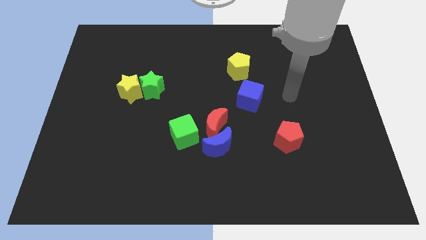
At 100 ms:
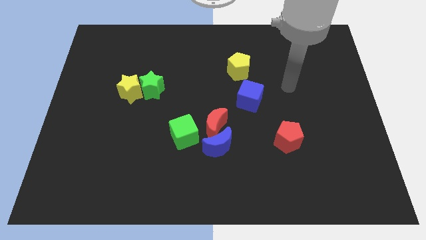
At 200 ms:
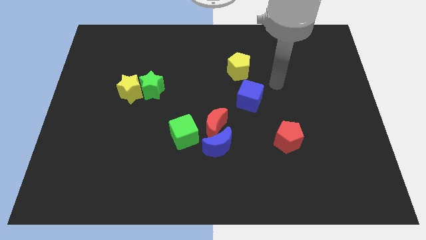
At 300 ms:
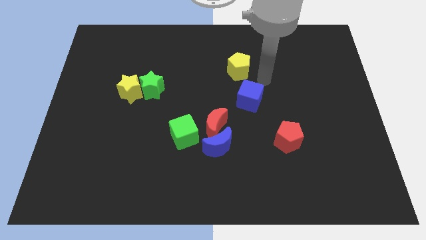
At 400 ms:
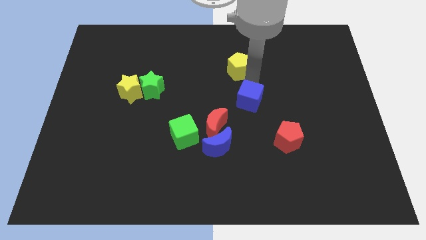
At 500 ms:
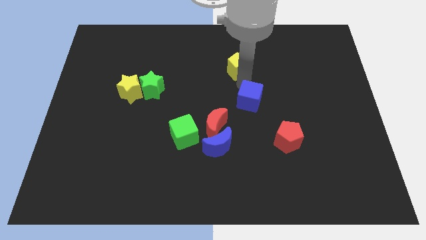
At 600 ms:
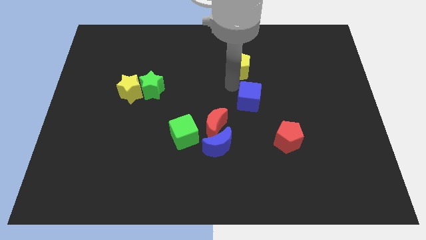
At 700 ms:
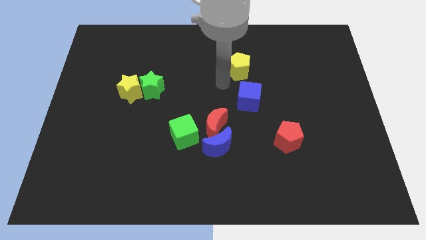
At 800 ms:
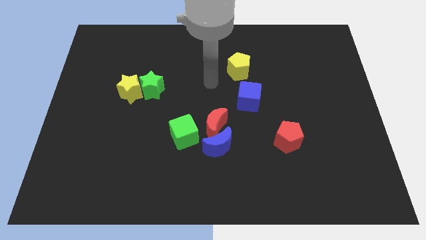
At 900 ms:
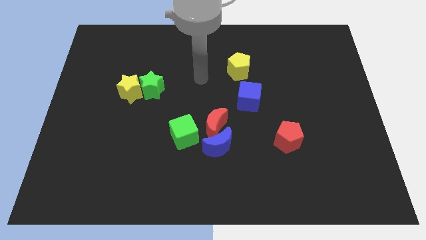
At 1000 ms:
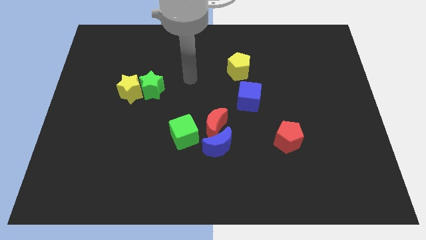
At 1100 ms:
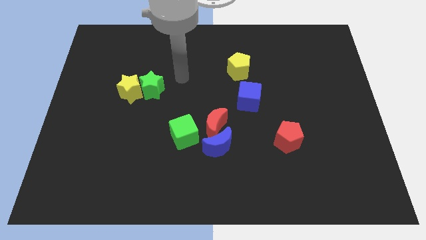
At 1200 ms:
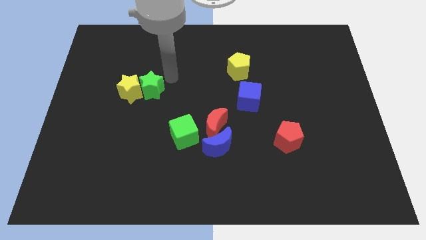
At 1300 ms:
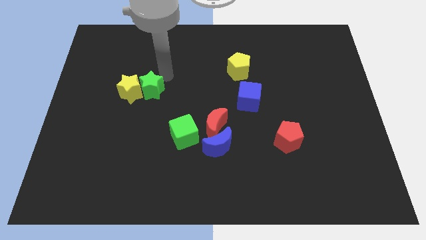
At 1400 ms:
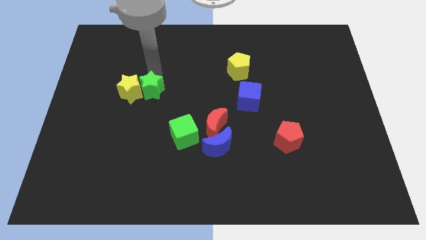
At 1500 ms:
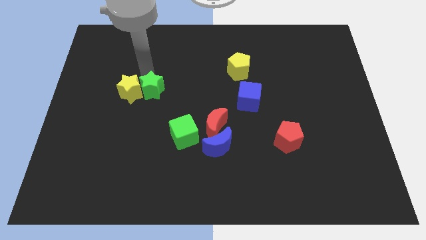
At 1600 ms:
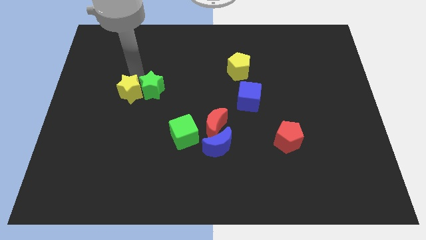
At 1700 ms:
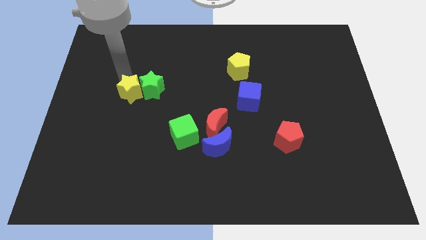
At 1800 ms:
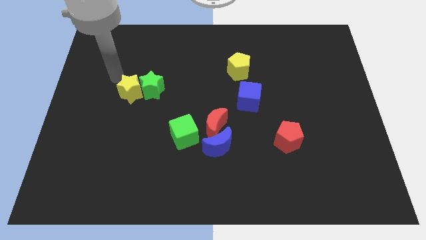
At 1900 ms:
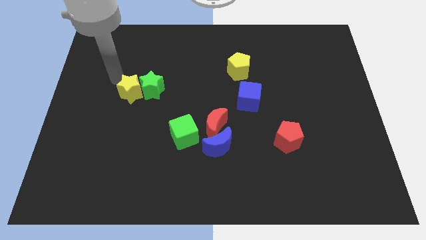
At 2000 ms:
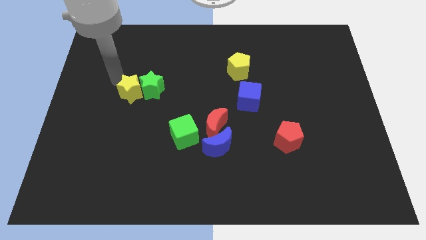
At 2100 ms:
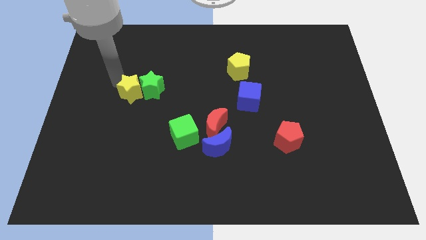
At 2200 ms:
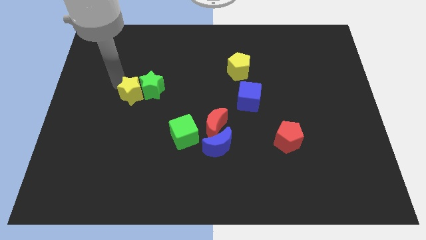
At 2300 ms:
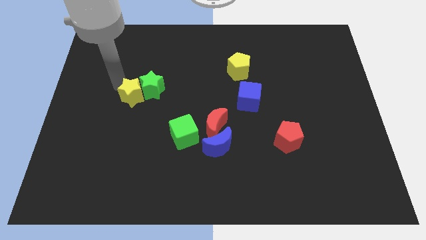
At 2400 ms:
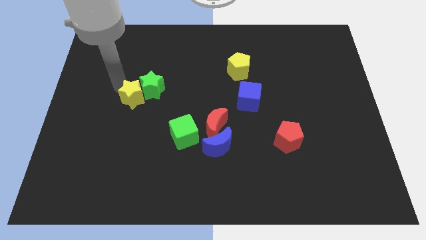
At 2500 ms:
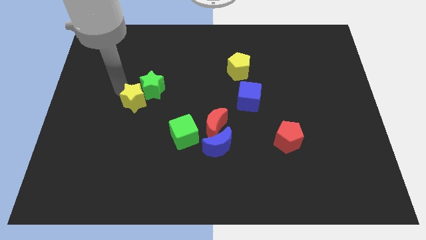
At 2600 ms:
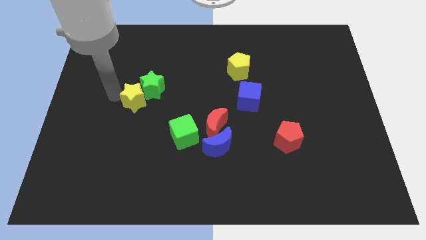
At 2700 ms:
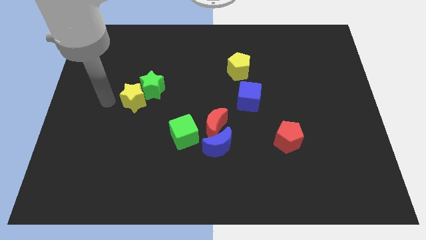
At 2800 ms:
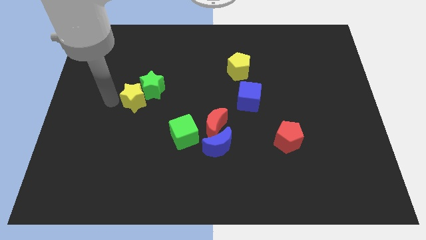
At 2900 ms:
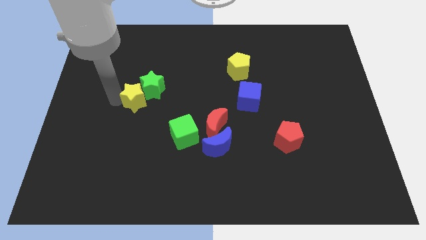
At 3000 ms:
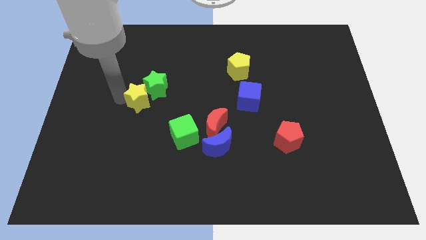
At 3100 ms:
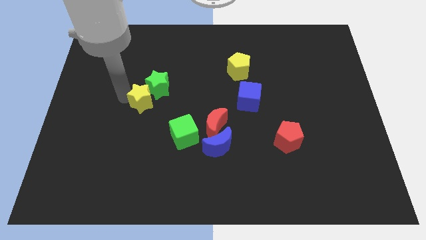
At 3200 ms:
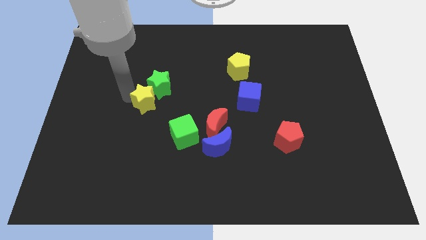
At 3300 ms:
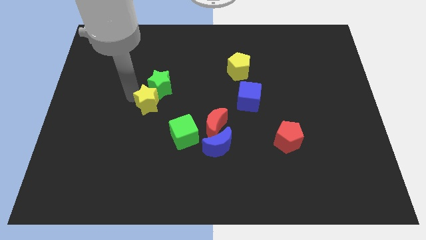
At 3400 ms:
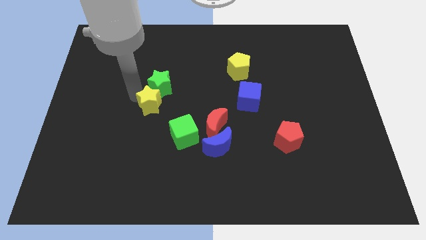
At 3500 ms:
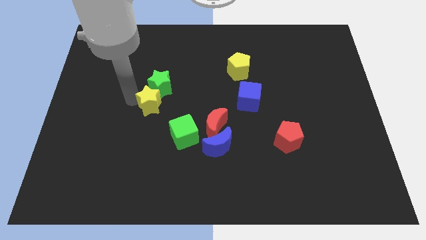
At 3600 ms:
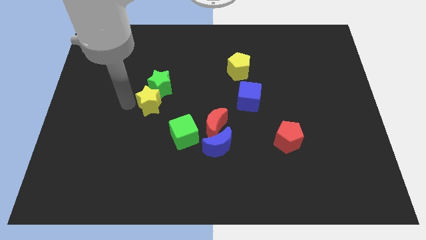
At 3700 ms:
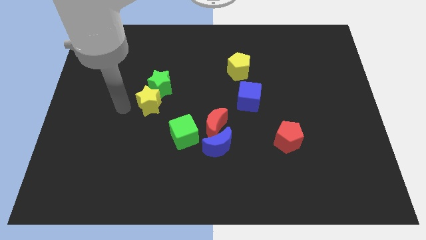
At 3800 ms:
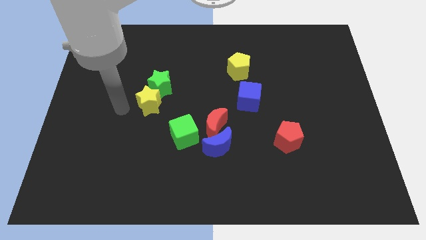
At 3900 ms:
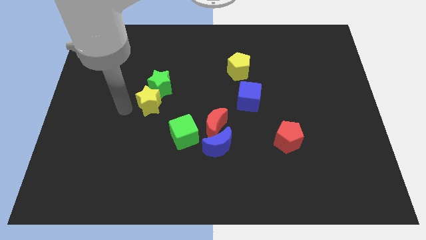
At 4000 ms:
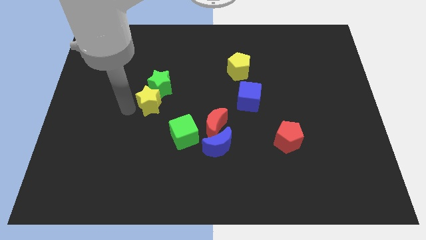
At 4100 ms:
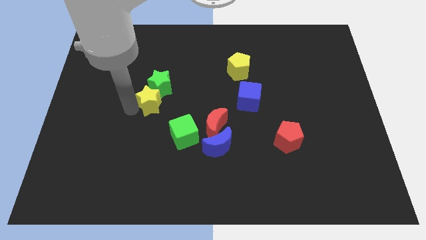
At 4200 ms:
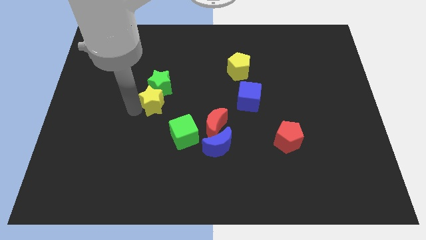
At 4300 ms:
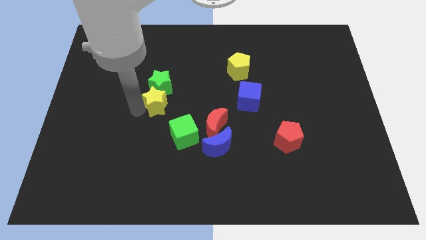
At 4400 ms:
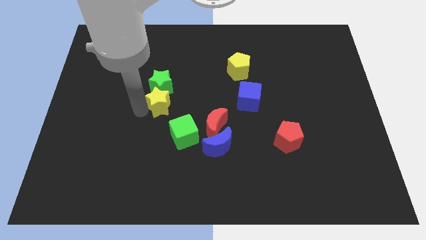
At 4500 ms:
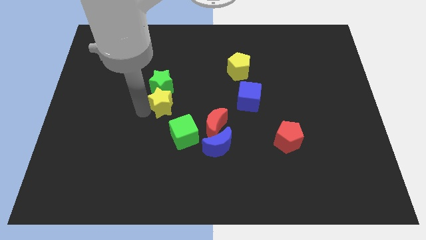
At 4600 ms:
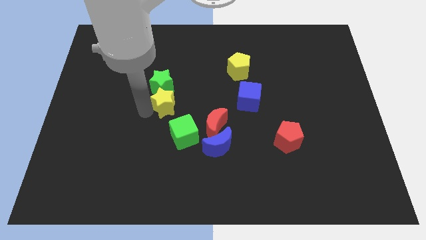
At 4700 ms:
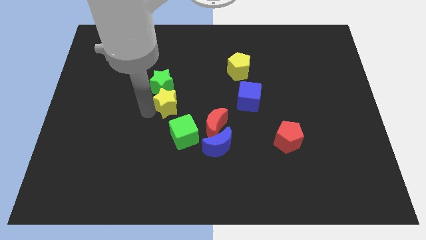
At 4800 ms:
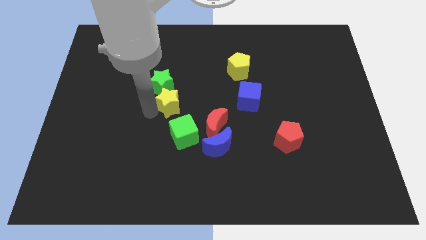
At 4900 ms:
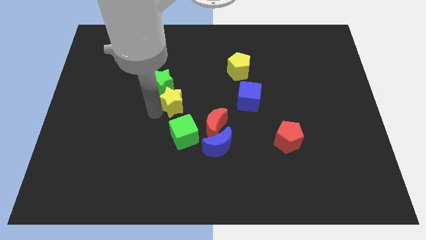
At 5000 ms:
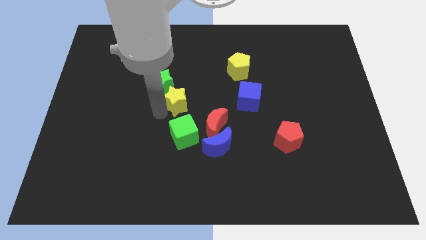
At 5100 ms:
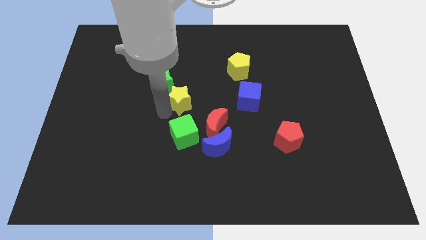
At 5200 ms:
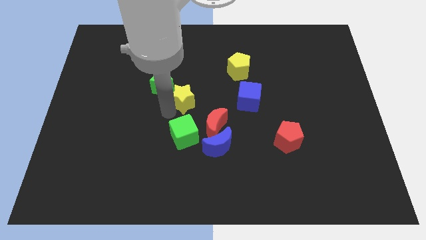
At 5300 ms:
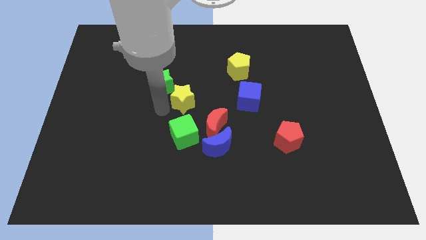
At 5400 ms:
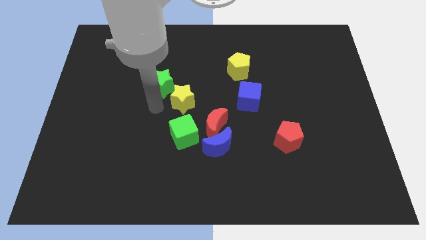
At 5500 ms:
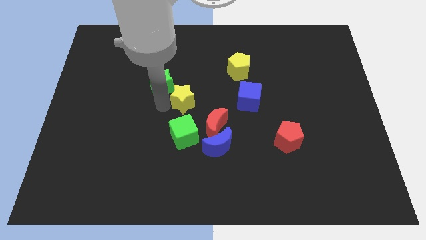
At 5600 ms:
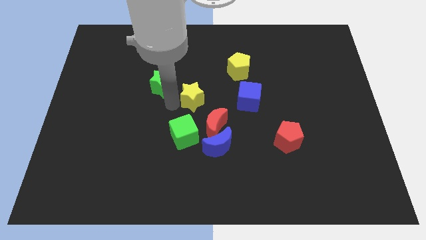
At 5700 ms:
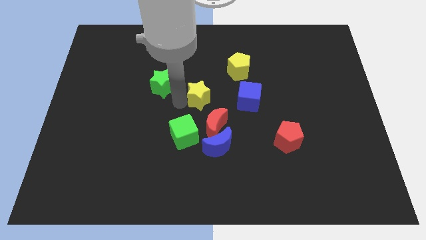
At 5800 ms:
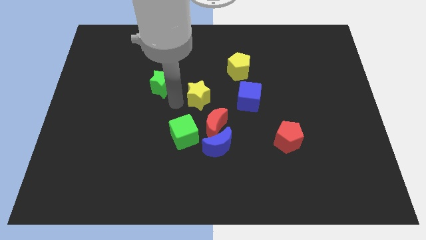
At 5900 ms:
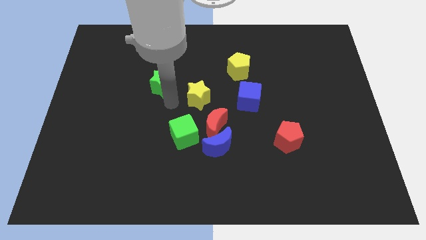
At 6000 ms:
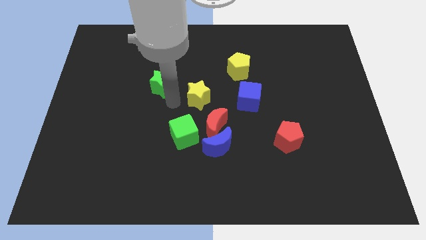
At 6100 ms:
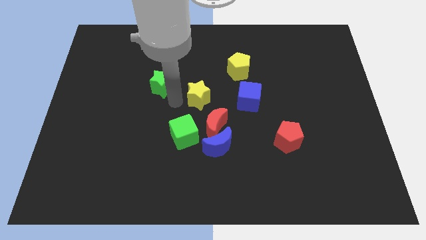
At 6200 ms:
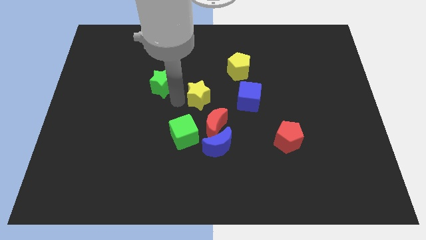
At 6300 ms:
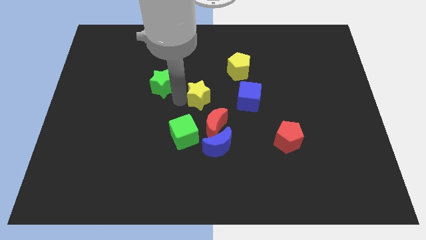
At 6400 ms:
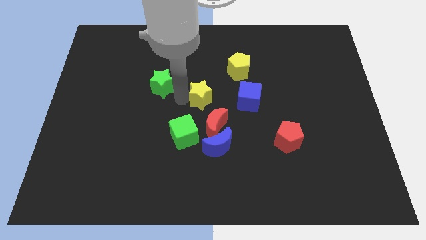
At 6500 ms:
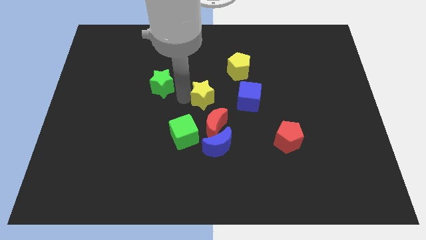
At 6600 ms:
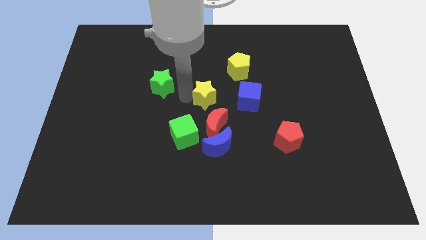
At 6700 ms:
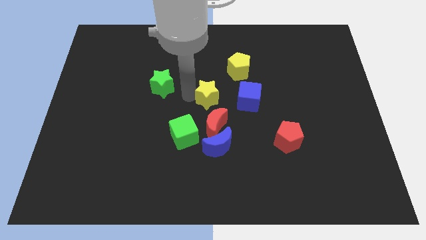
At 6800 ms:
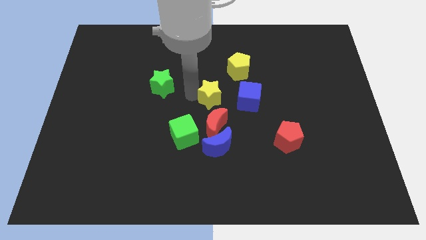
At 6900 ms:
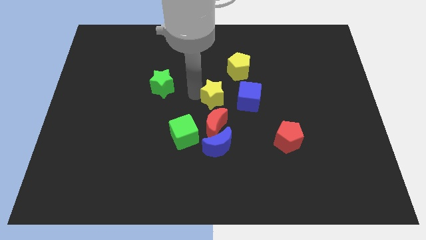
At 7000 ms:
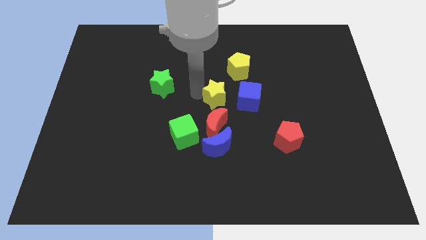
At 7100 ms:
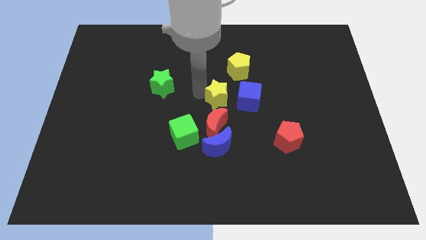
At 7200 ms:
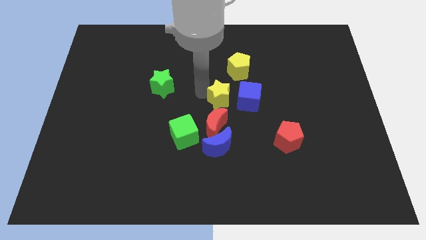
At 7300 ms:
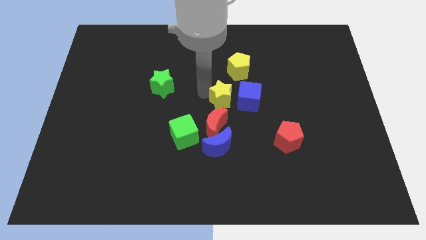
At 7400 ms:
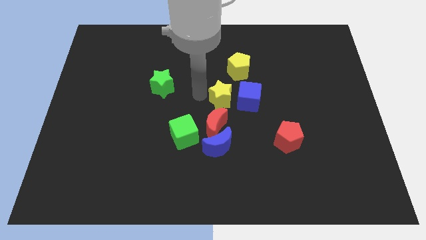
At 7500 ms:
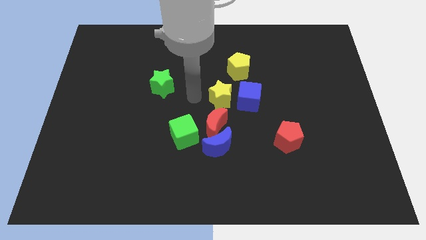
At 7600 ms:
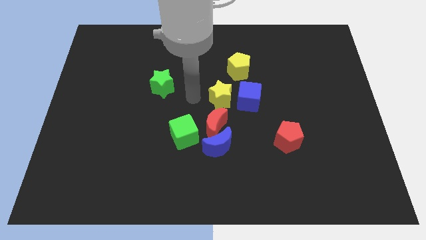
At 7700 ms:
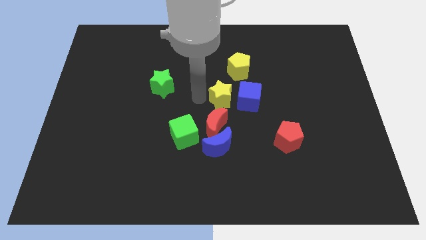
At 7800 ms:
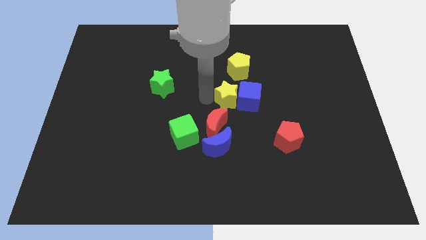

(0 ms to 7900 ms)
put the yellow star to the blue cube
